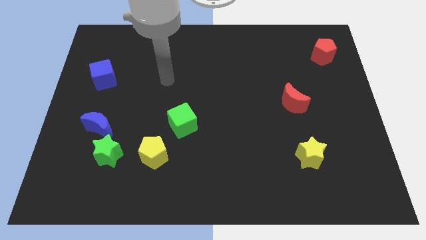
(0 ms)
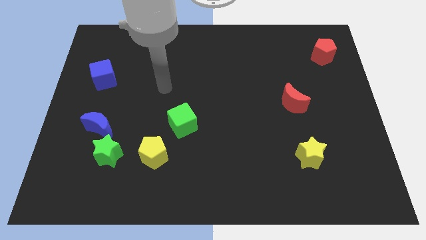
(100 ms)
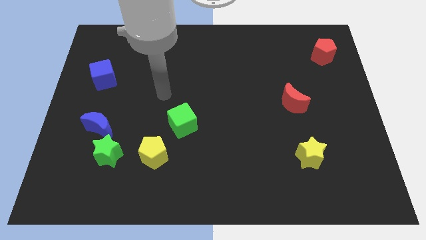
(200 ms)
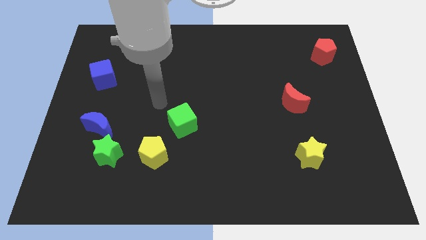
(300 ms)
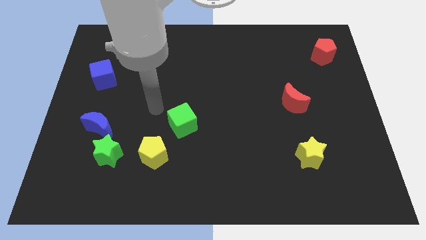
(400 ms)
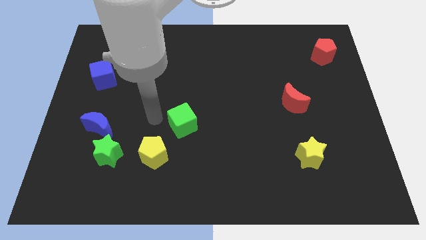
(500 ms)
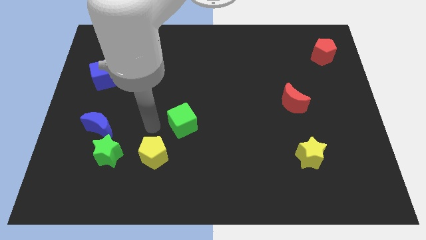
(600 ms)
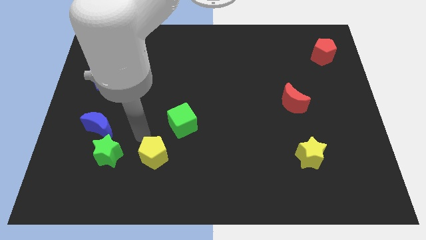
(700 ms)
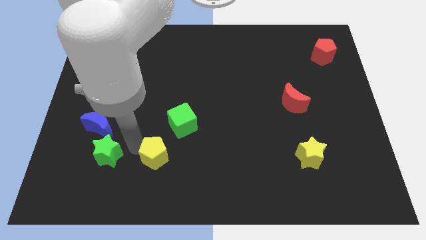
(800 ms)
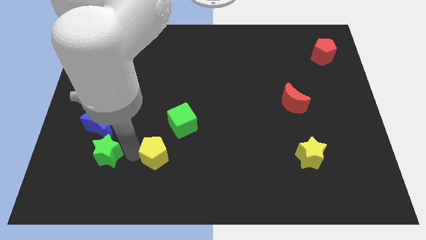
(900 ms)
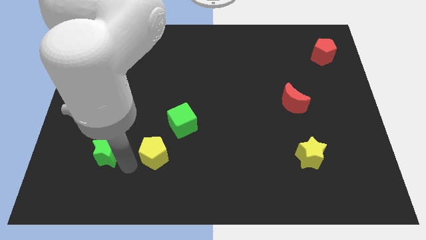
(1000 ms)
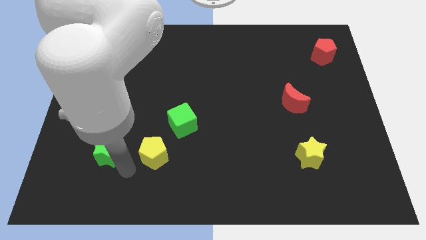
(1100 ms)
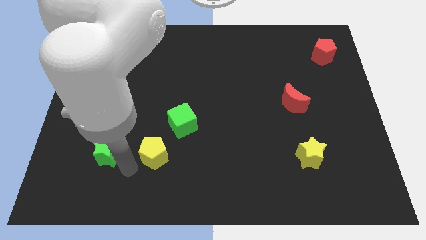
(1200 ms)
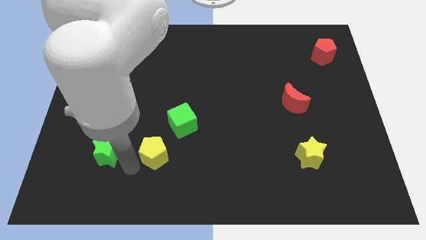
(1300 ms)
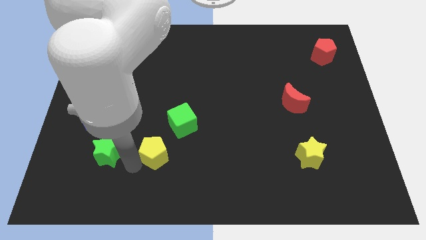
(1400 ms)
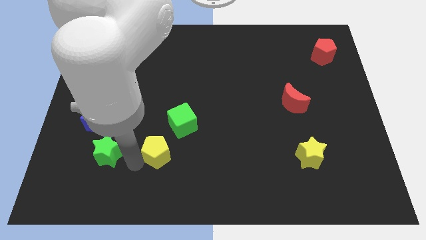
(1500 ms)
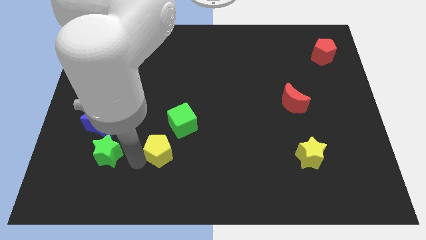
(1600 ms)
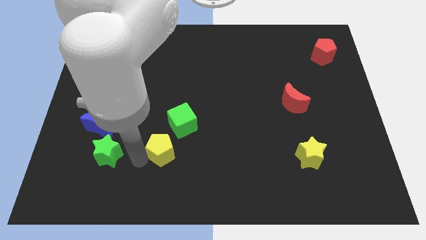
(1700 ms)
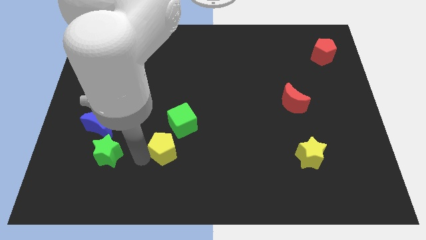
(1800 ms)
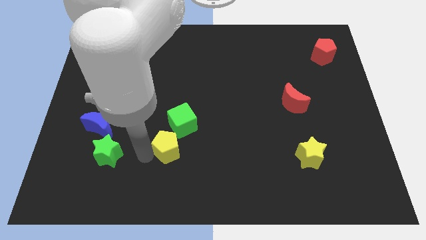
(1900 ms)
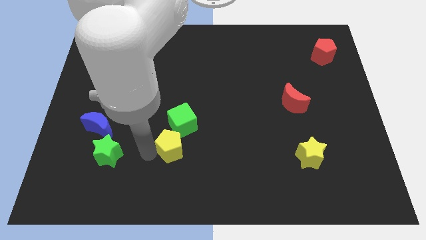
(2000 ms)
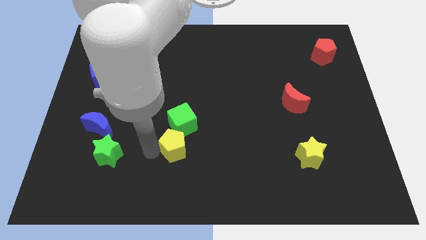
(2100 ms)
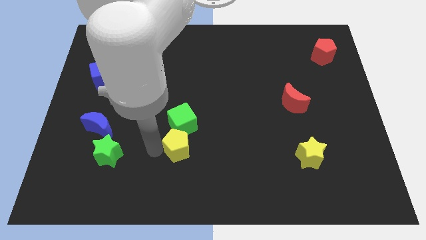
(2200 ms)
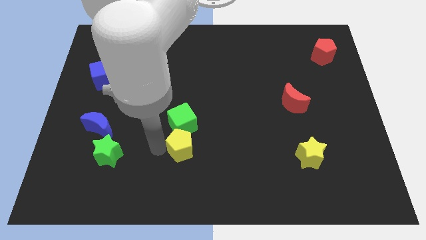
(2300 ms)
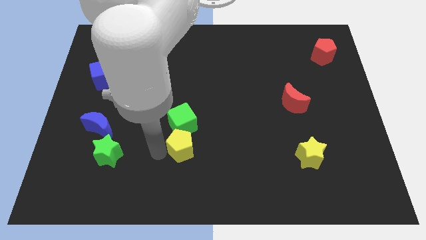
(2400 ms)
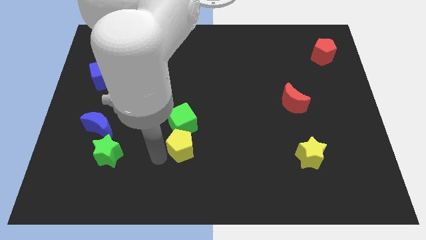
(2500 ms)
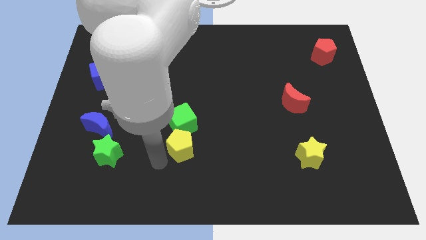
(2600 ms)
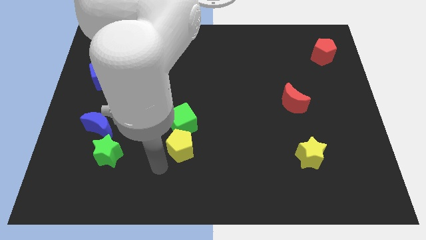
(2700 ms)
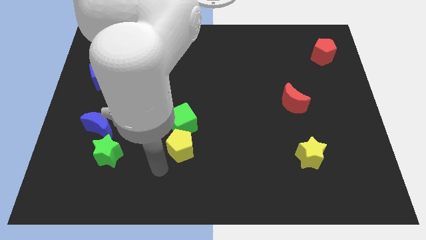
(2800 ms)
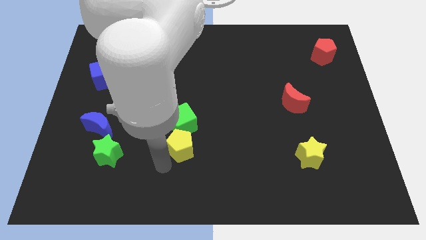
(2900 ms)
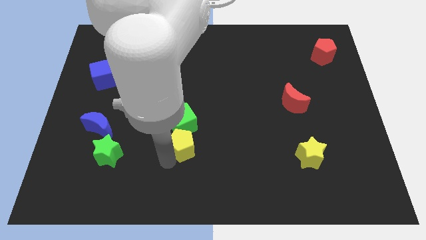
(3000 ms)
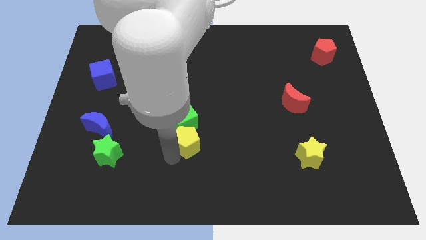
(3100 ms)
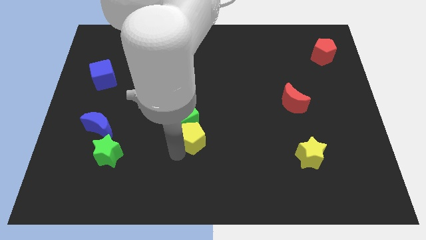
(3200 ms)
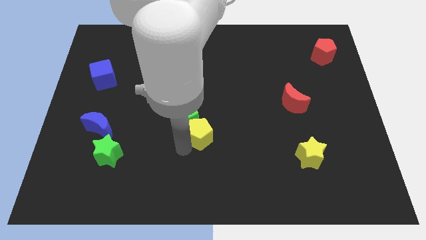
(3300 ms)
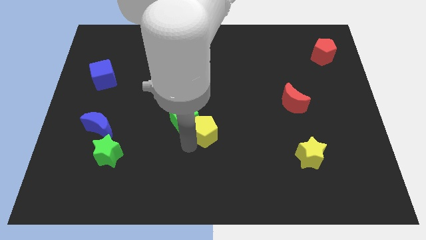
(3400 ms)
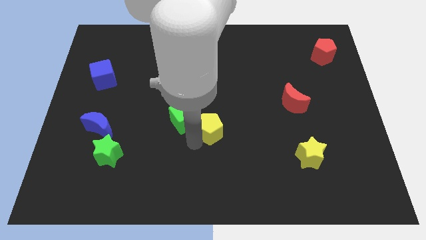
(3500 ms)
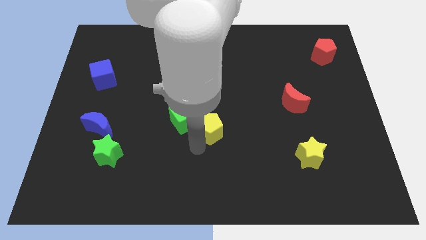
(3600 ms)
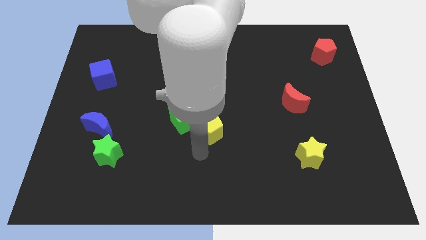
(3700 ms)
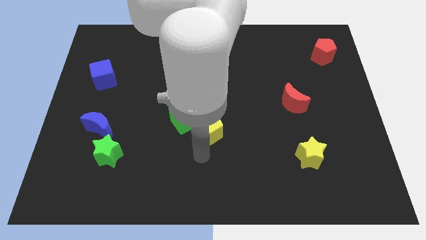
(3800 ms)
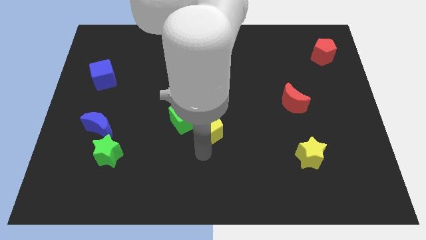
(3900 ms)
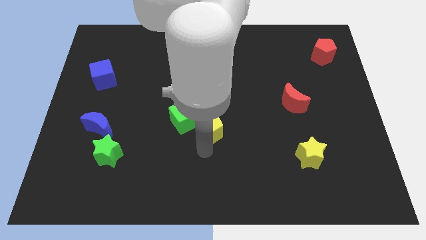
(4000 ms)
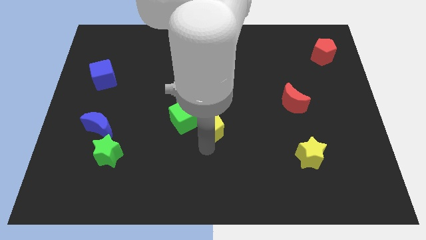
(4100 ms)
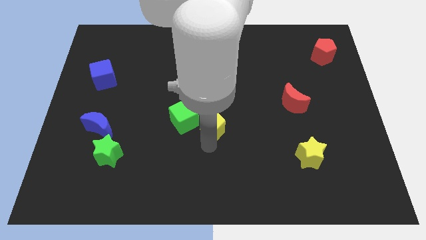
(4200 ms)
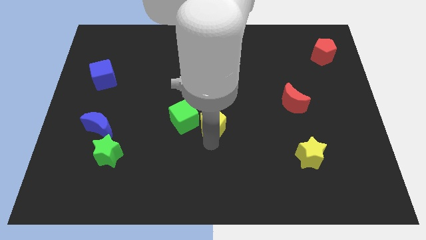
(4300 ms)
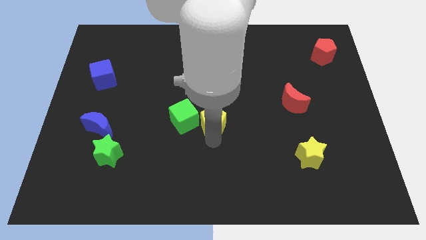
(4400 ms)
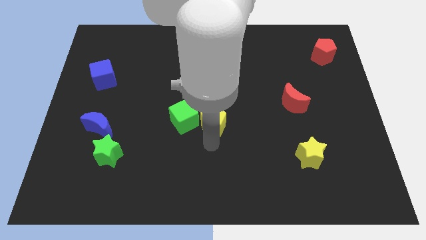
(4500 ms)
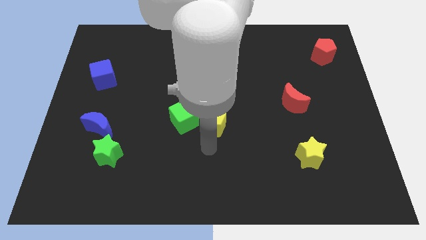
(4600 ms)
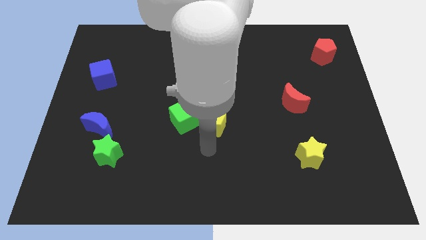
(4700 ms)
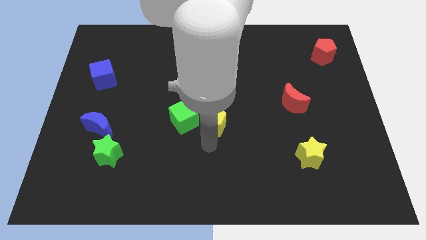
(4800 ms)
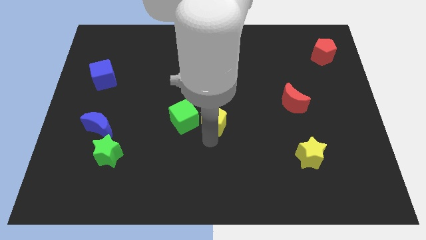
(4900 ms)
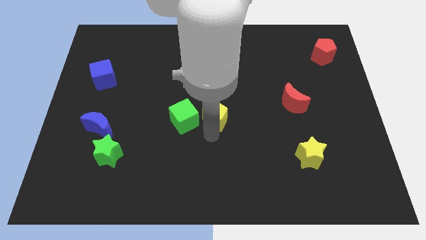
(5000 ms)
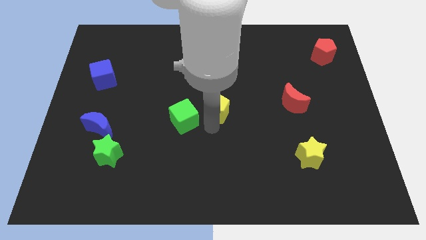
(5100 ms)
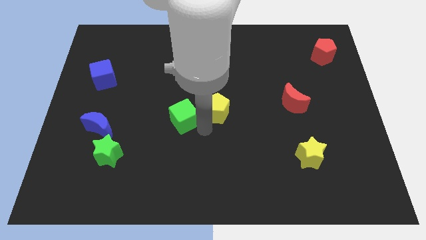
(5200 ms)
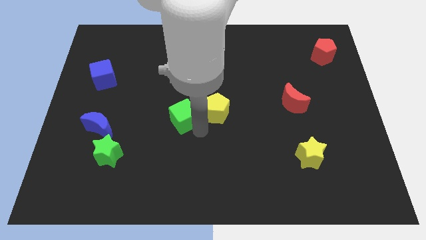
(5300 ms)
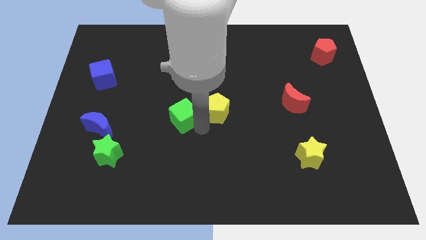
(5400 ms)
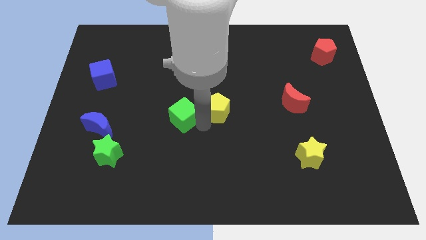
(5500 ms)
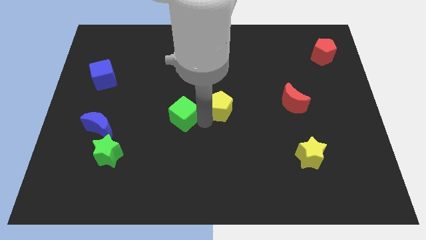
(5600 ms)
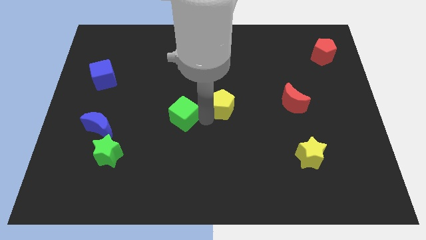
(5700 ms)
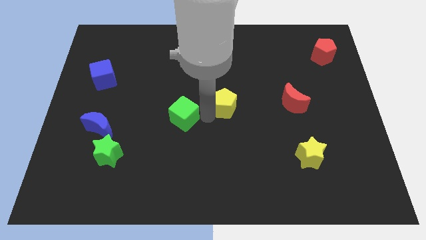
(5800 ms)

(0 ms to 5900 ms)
slide the yellow pentagon upwards and right diagonally

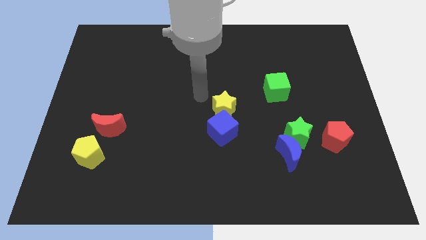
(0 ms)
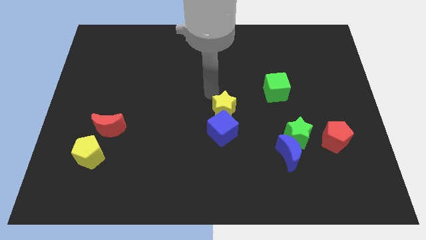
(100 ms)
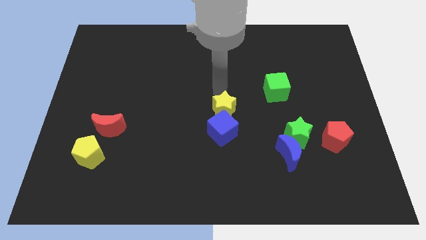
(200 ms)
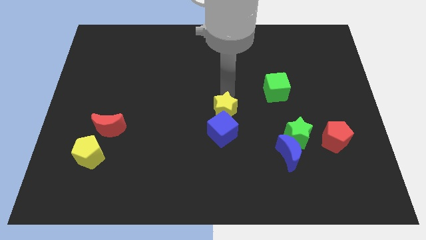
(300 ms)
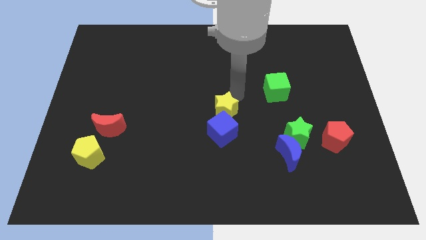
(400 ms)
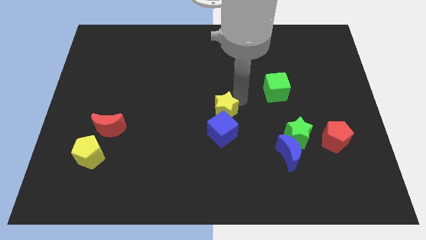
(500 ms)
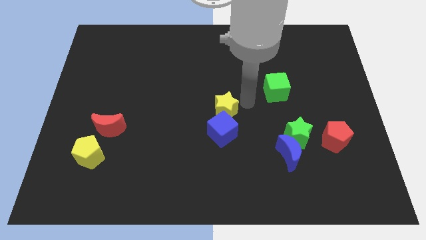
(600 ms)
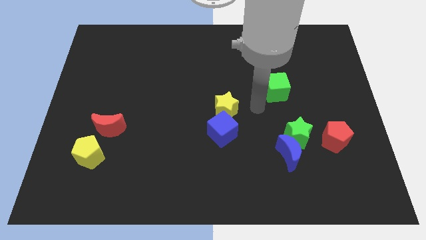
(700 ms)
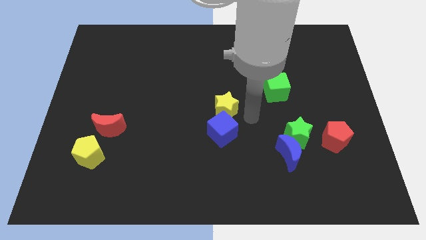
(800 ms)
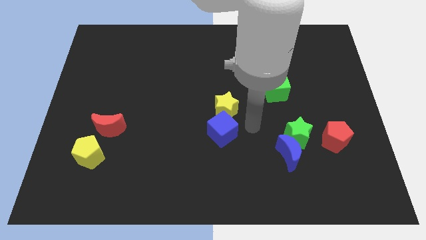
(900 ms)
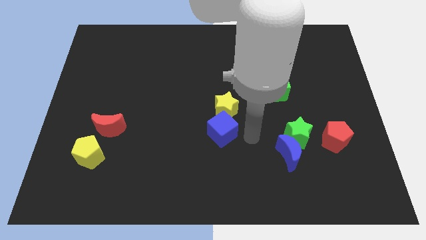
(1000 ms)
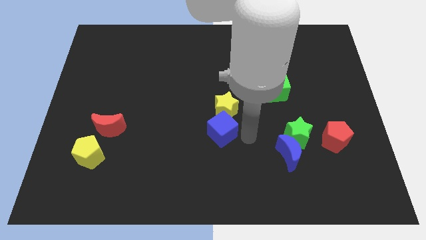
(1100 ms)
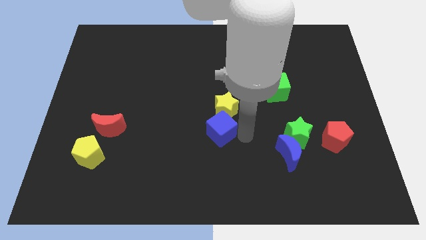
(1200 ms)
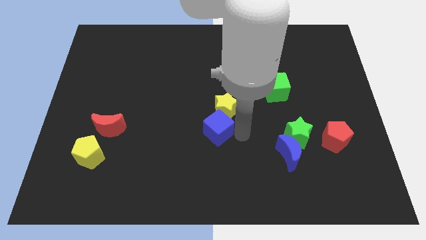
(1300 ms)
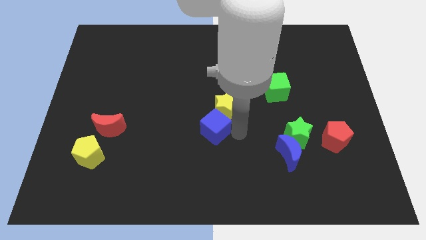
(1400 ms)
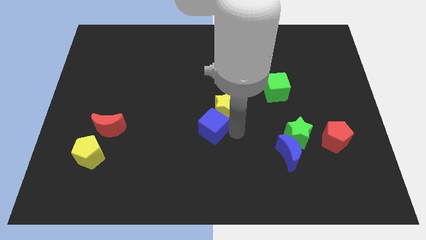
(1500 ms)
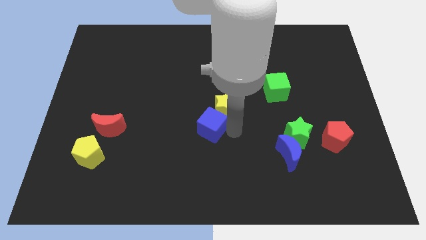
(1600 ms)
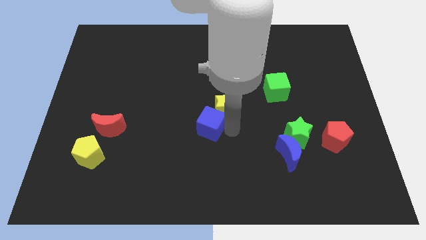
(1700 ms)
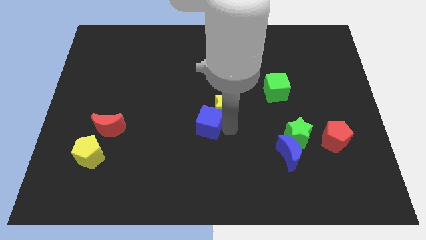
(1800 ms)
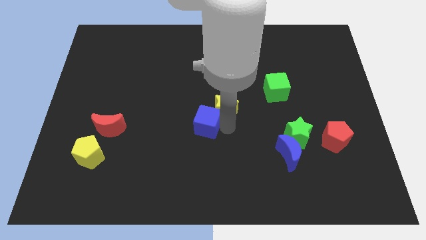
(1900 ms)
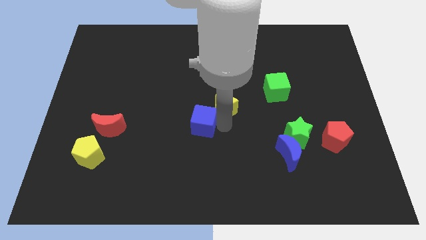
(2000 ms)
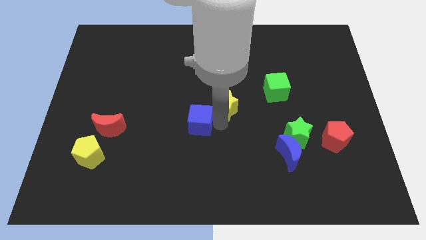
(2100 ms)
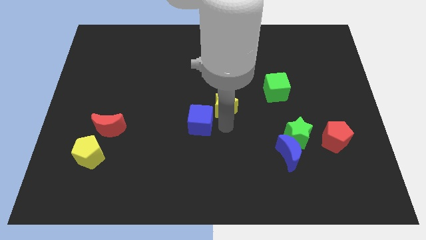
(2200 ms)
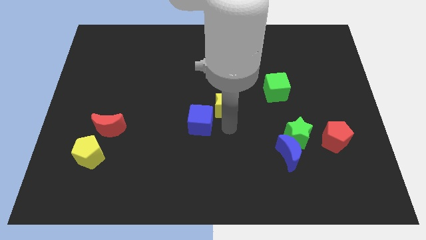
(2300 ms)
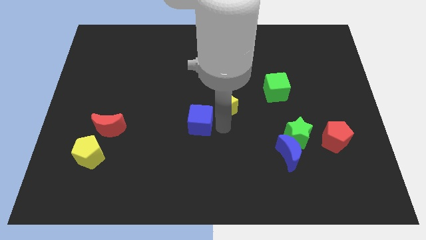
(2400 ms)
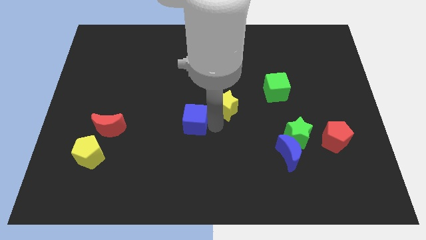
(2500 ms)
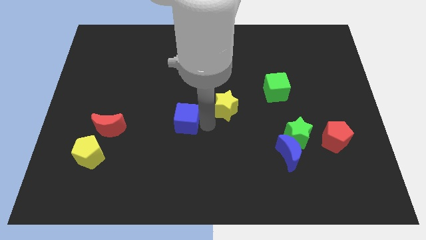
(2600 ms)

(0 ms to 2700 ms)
push the blue cube somewhat to the left
